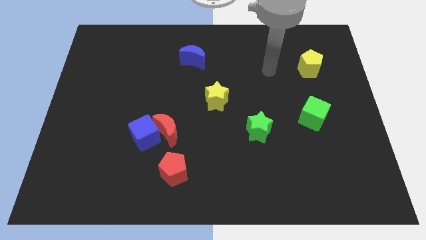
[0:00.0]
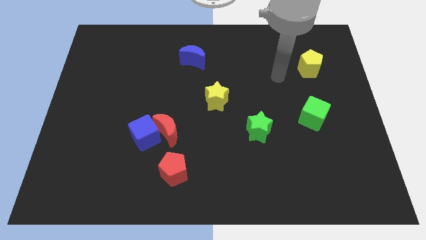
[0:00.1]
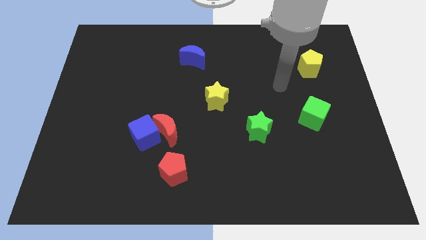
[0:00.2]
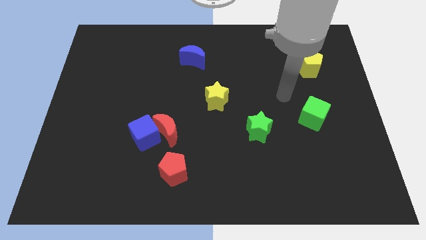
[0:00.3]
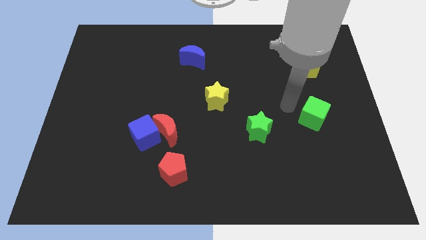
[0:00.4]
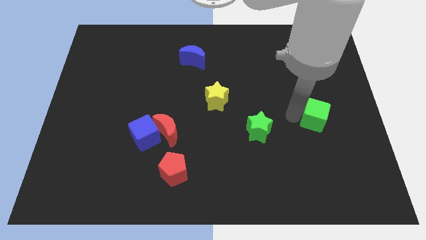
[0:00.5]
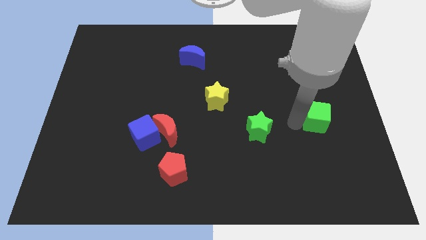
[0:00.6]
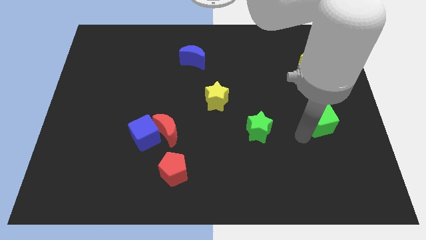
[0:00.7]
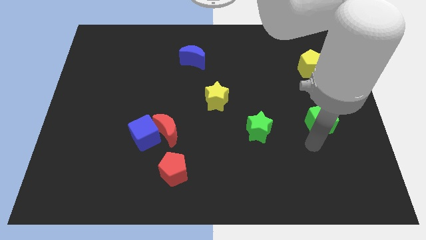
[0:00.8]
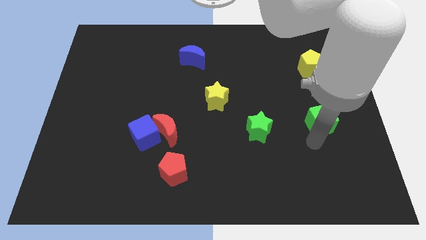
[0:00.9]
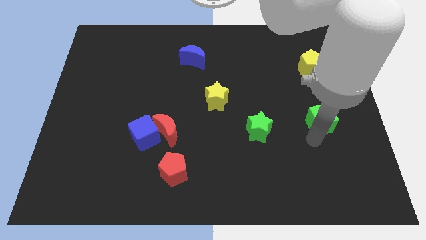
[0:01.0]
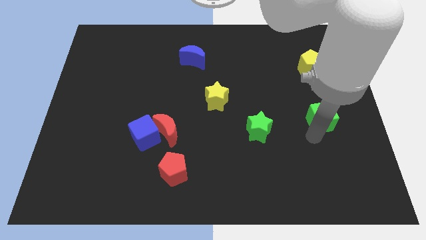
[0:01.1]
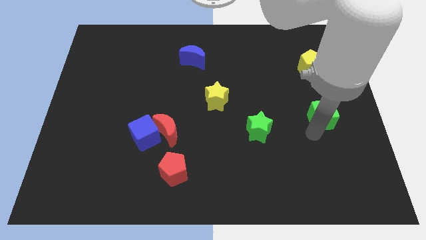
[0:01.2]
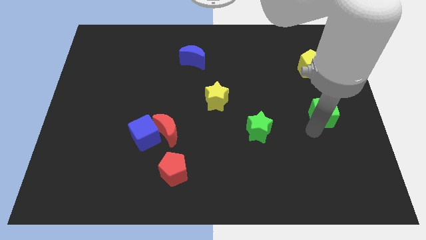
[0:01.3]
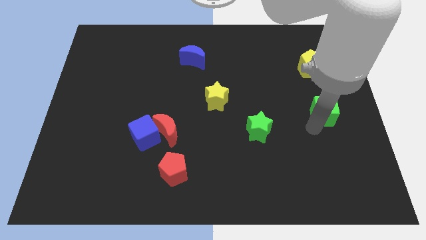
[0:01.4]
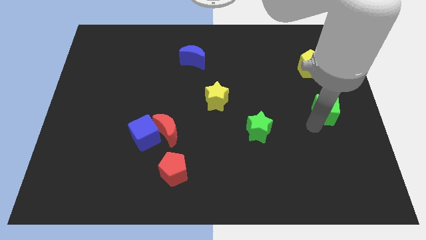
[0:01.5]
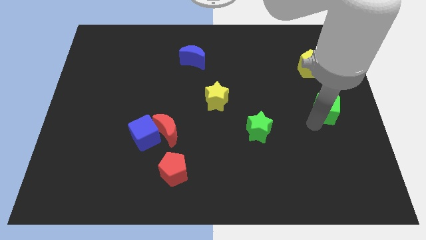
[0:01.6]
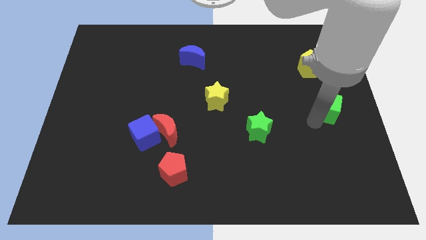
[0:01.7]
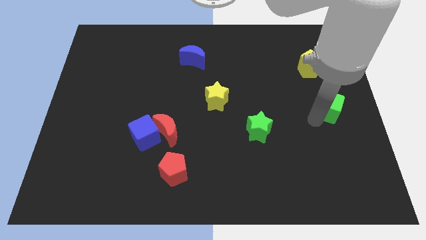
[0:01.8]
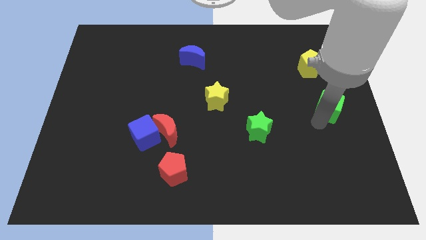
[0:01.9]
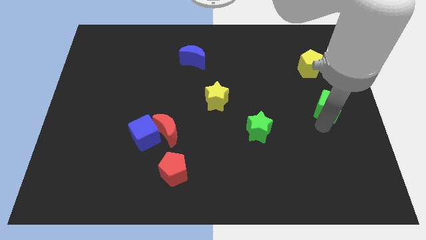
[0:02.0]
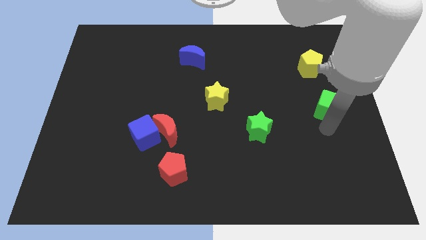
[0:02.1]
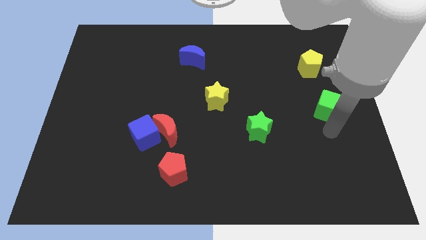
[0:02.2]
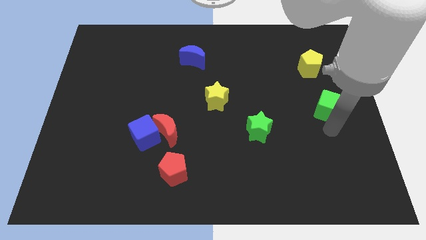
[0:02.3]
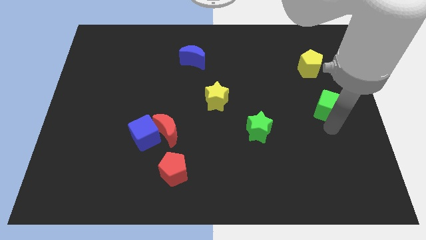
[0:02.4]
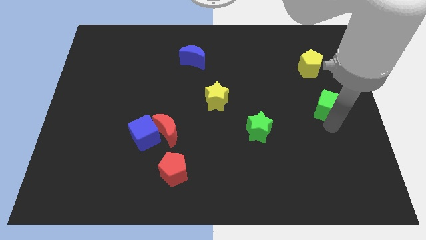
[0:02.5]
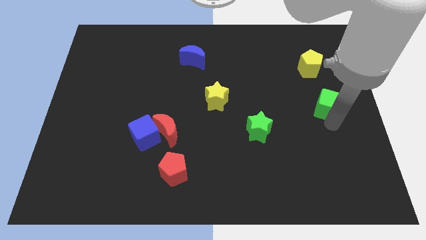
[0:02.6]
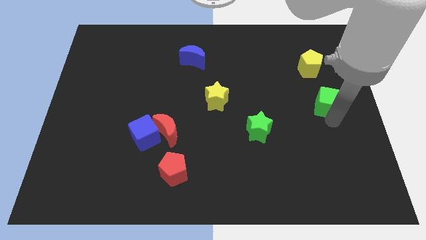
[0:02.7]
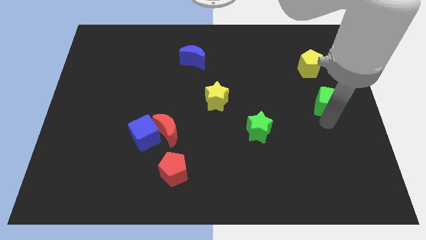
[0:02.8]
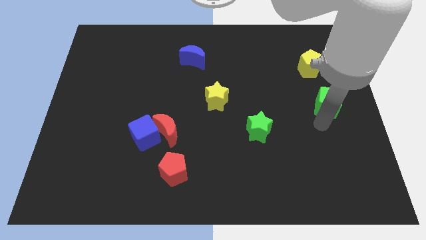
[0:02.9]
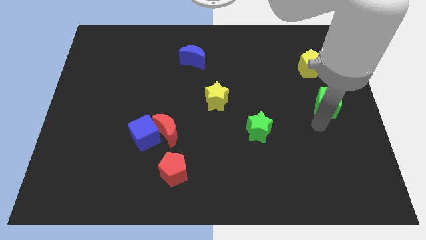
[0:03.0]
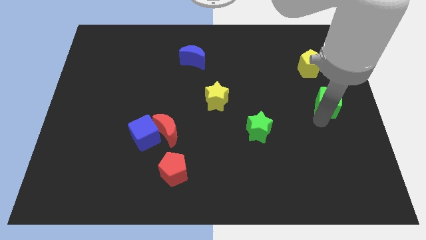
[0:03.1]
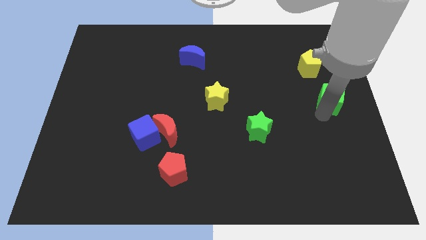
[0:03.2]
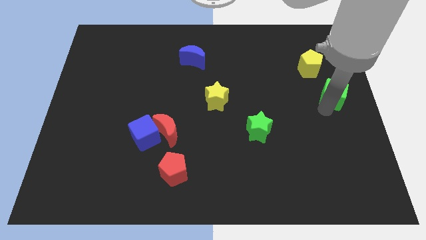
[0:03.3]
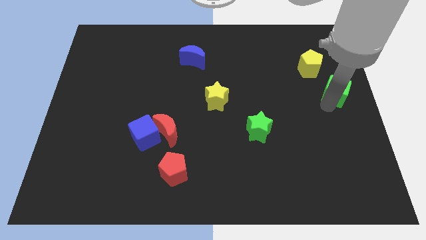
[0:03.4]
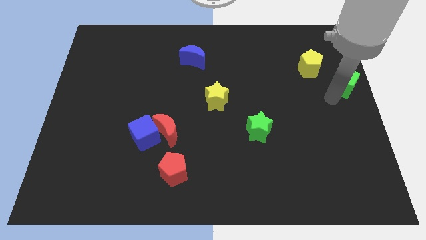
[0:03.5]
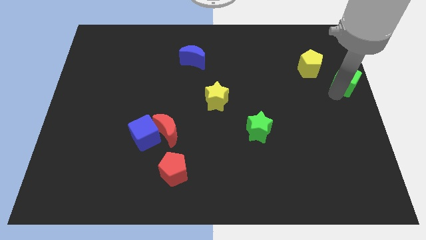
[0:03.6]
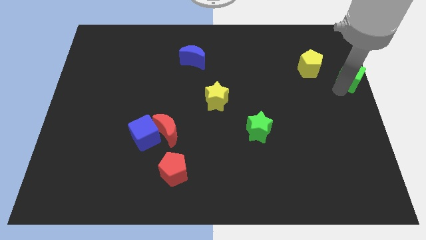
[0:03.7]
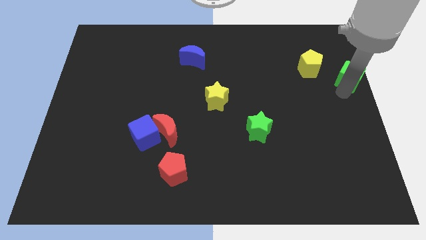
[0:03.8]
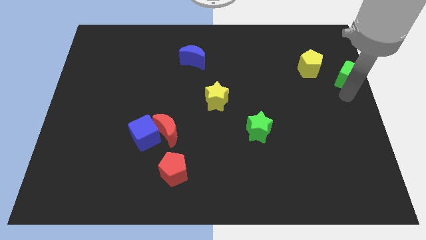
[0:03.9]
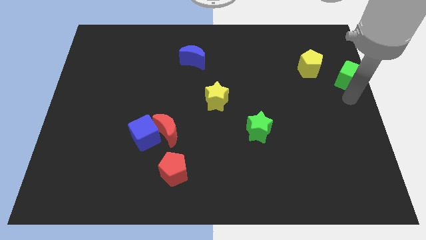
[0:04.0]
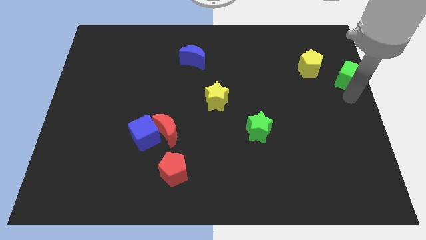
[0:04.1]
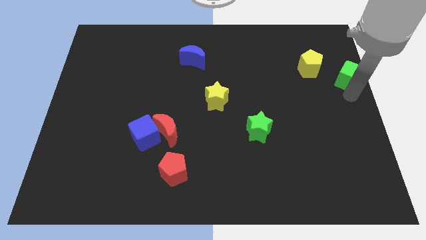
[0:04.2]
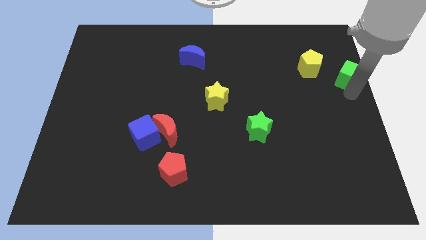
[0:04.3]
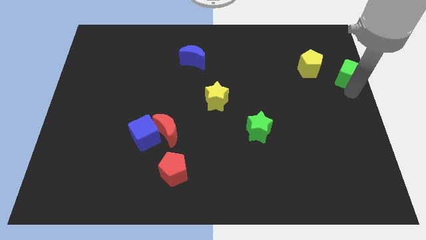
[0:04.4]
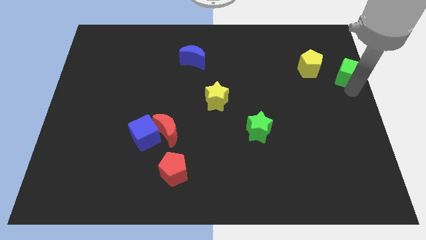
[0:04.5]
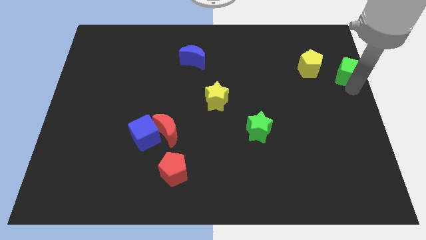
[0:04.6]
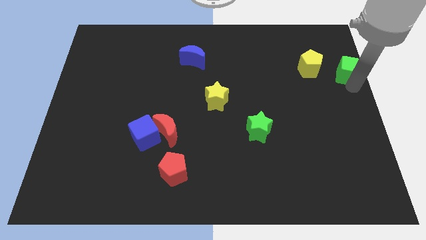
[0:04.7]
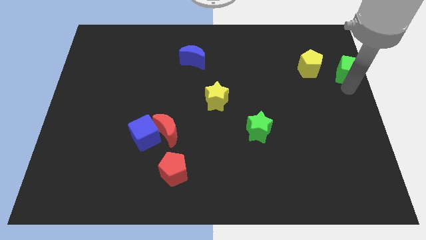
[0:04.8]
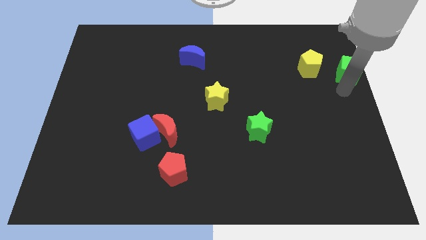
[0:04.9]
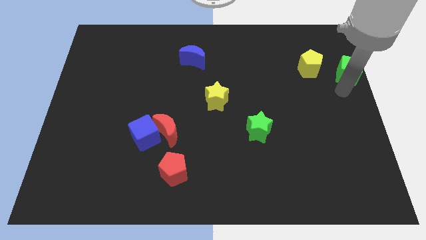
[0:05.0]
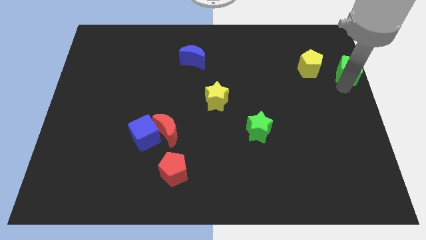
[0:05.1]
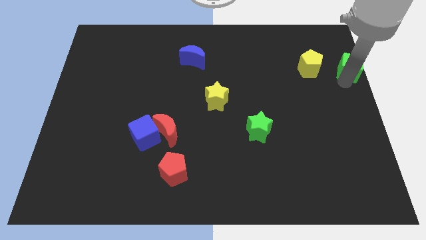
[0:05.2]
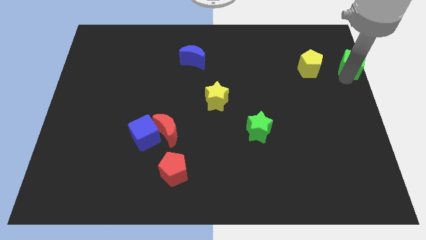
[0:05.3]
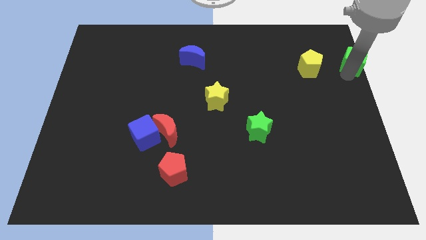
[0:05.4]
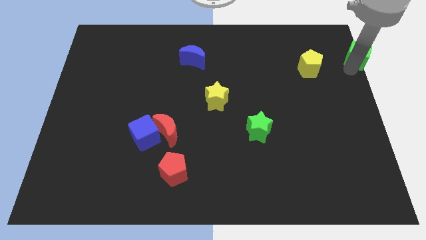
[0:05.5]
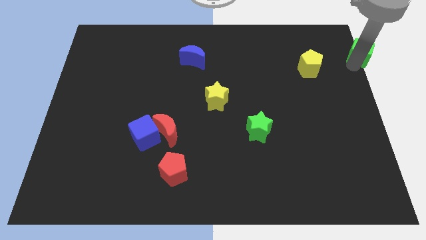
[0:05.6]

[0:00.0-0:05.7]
slide the green cube to the upper right corner
